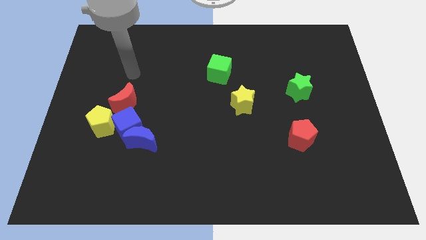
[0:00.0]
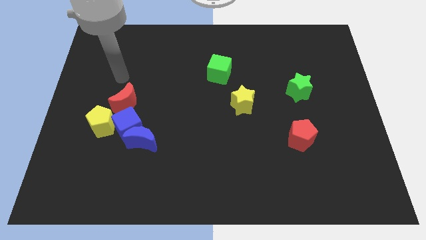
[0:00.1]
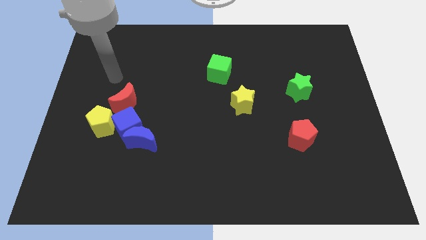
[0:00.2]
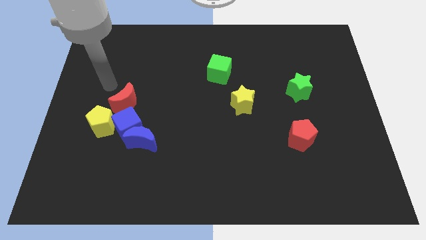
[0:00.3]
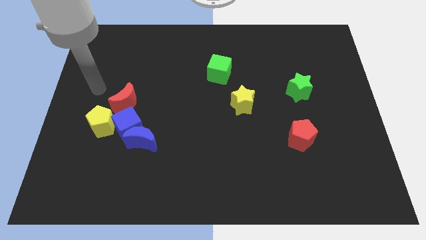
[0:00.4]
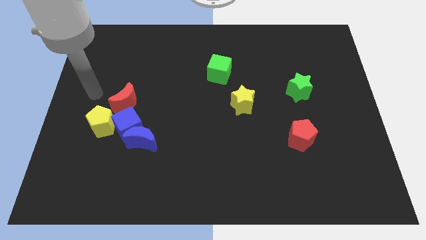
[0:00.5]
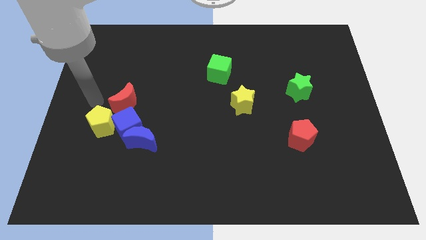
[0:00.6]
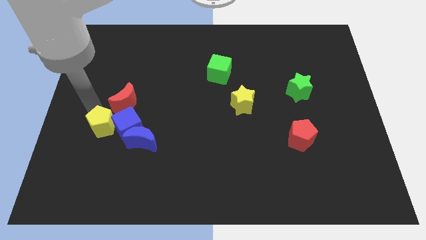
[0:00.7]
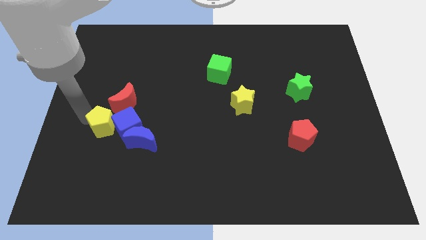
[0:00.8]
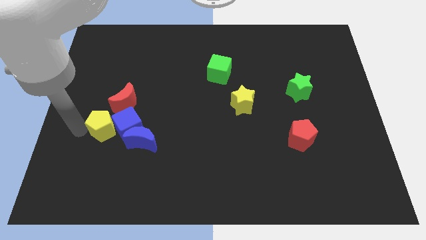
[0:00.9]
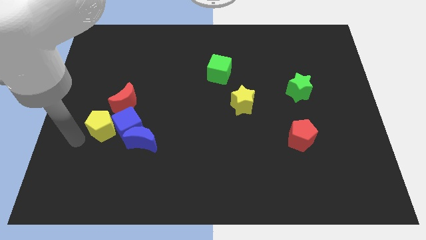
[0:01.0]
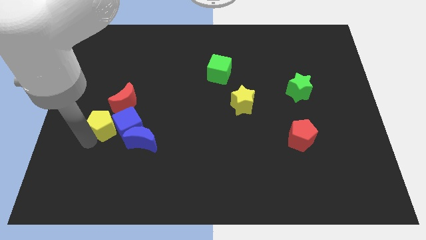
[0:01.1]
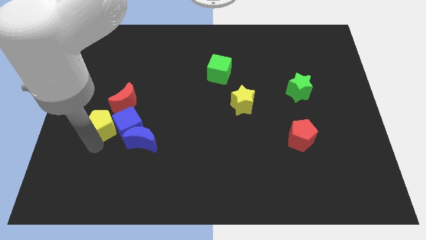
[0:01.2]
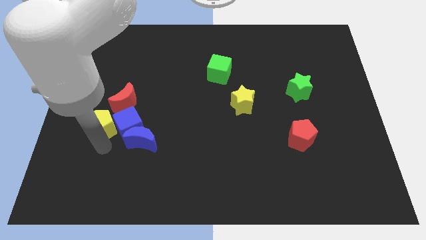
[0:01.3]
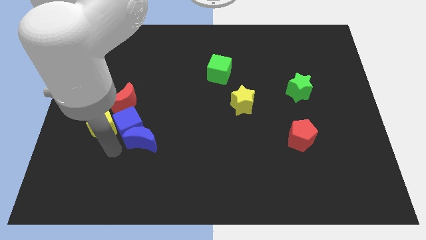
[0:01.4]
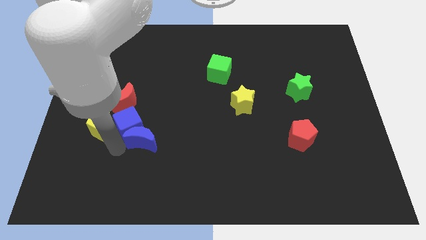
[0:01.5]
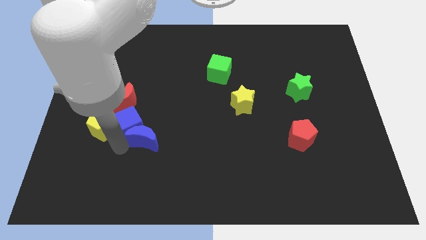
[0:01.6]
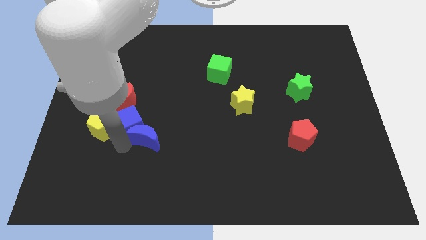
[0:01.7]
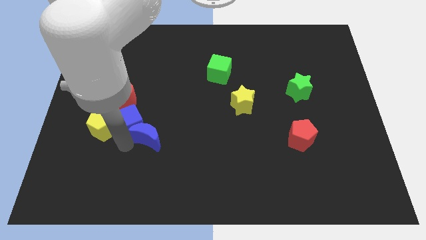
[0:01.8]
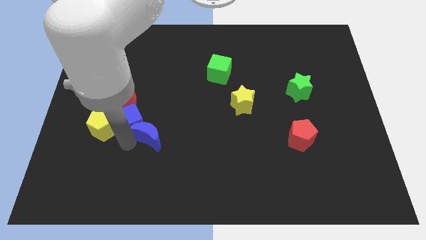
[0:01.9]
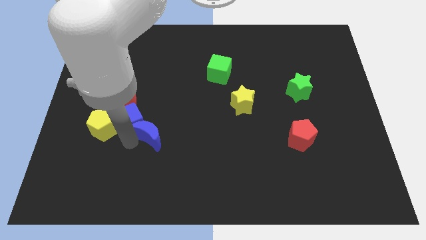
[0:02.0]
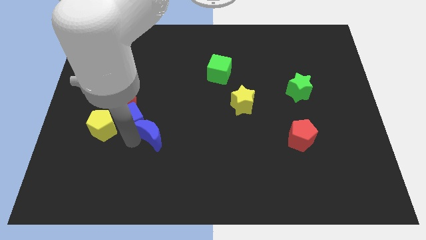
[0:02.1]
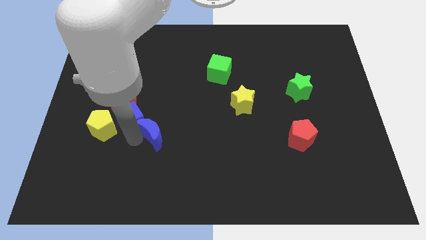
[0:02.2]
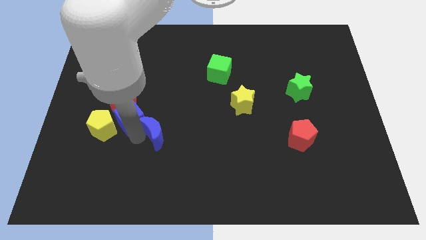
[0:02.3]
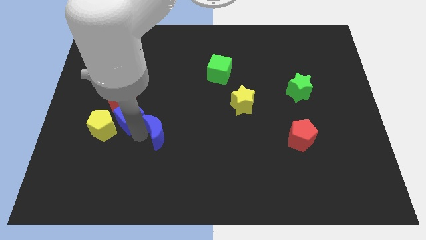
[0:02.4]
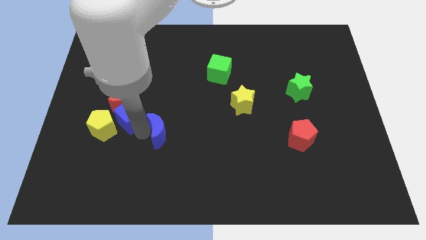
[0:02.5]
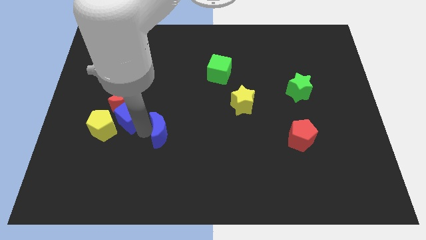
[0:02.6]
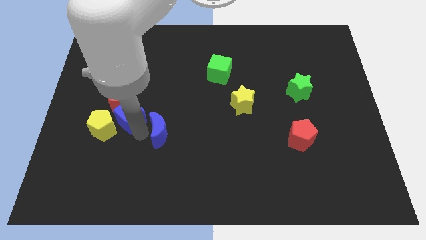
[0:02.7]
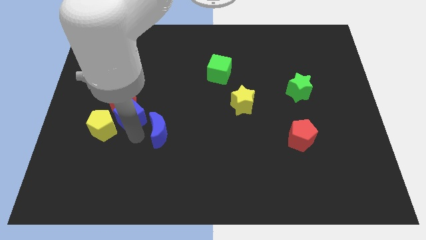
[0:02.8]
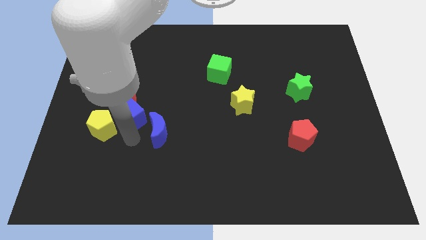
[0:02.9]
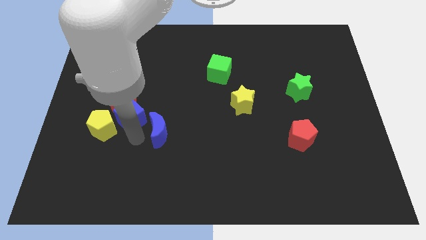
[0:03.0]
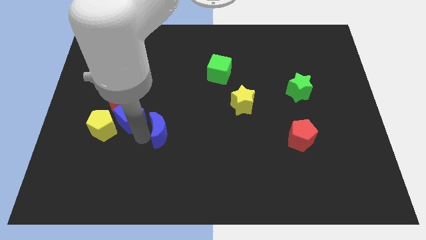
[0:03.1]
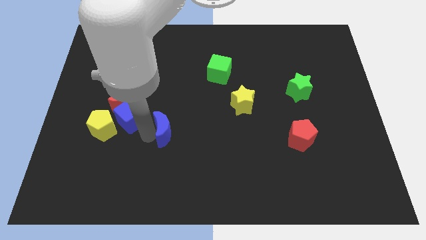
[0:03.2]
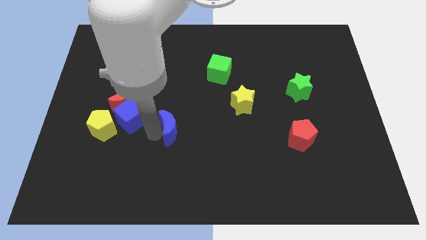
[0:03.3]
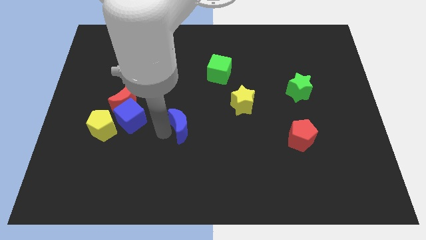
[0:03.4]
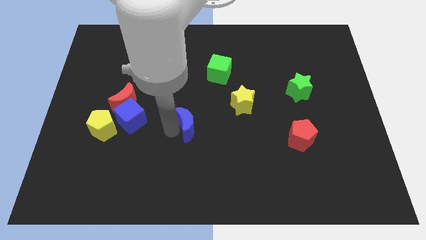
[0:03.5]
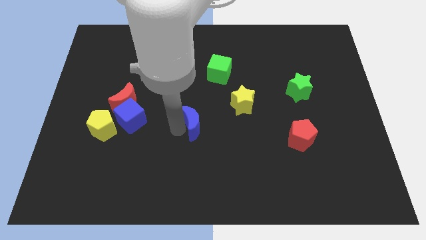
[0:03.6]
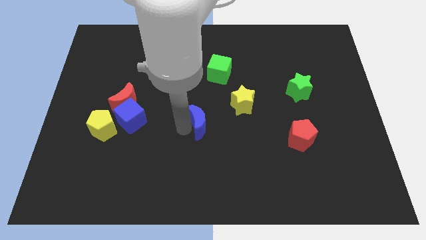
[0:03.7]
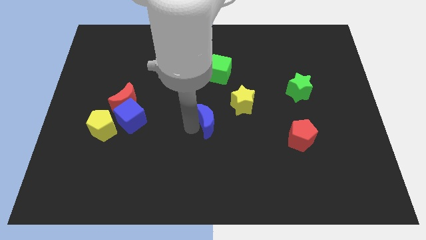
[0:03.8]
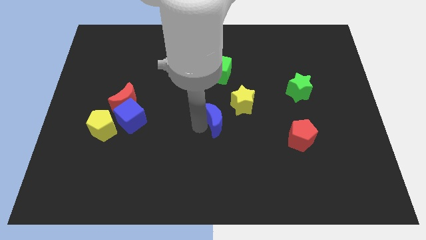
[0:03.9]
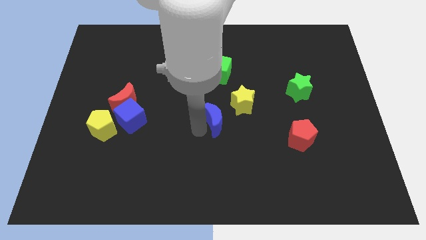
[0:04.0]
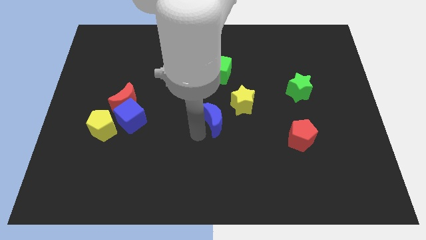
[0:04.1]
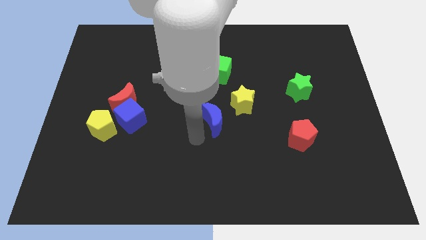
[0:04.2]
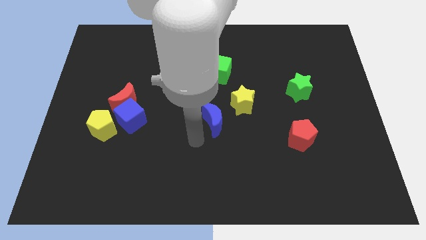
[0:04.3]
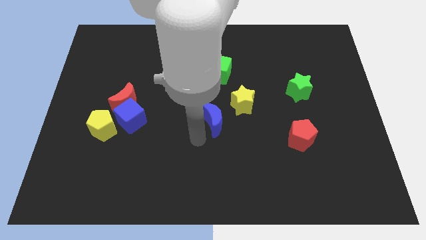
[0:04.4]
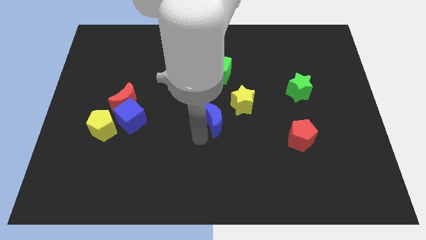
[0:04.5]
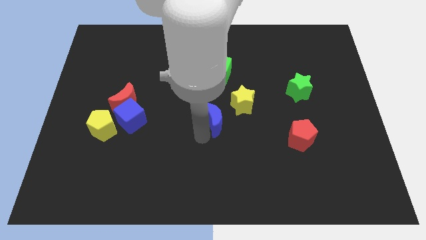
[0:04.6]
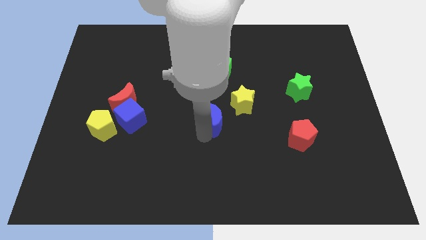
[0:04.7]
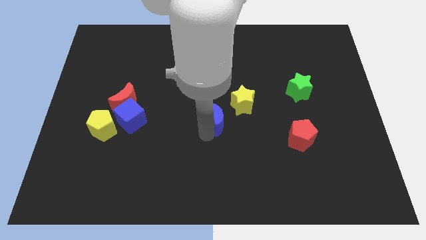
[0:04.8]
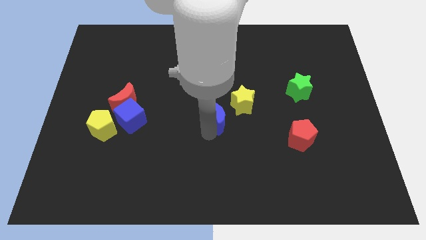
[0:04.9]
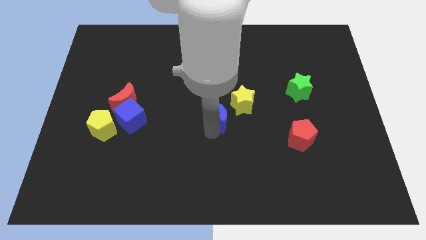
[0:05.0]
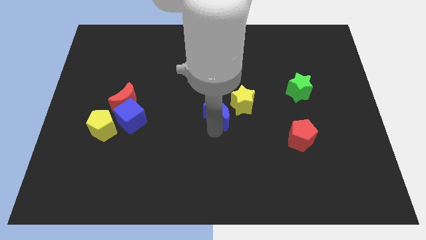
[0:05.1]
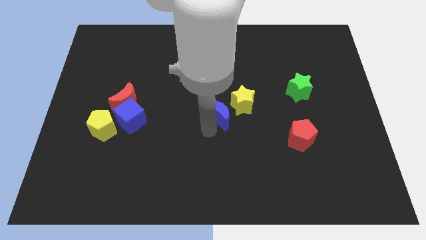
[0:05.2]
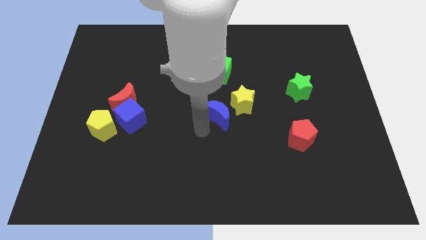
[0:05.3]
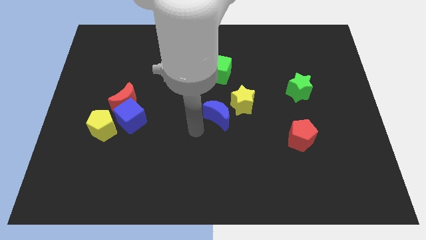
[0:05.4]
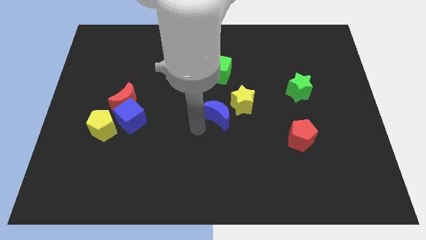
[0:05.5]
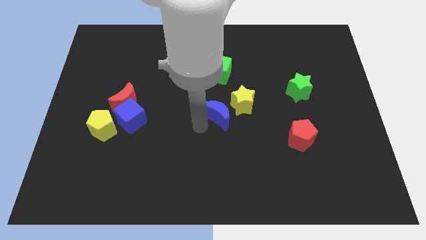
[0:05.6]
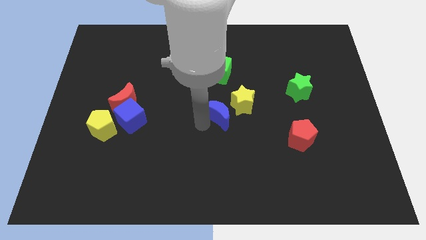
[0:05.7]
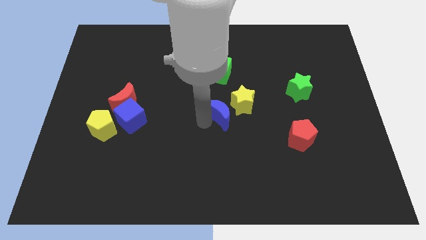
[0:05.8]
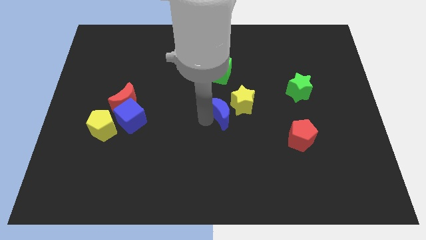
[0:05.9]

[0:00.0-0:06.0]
put the blue moon close to the yellow star

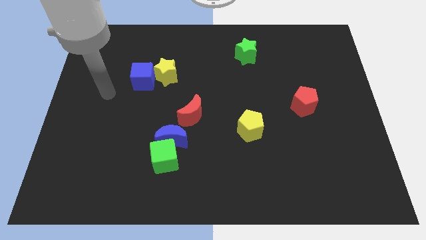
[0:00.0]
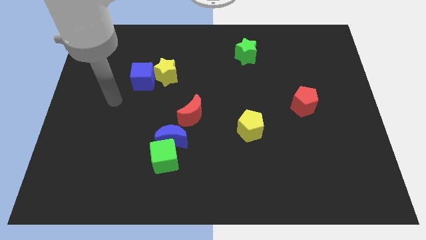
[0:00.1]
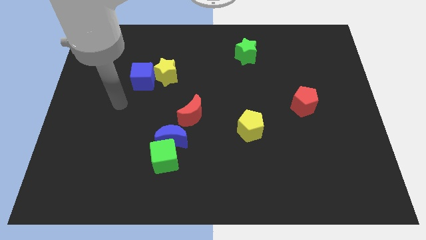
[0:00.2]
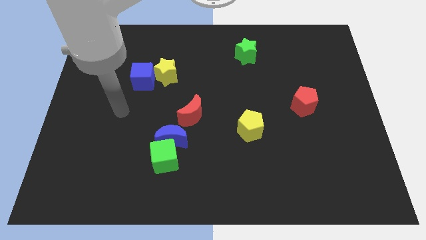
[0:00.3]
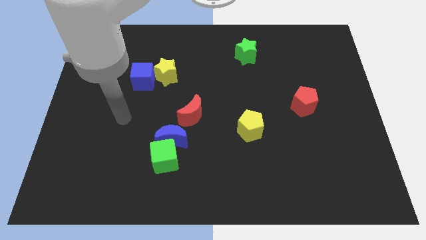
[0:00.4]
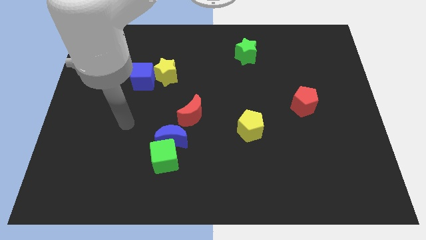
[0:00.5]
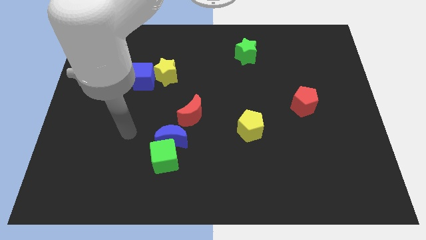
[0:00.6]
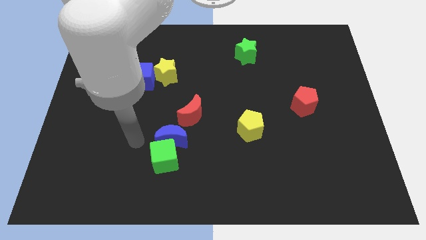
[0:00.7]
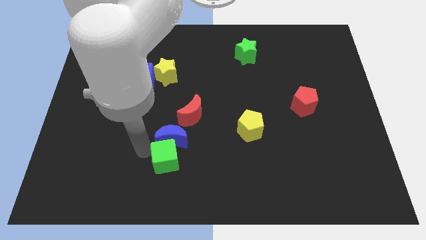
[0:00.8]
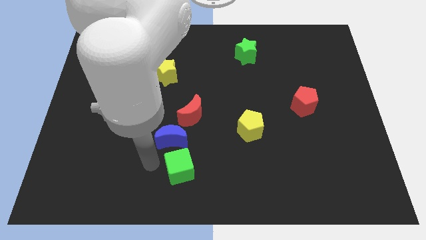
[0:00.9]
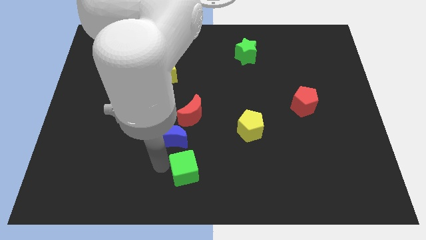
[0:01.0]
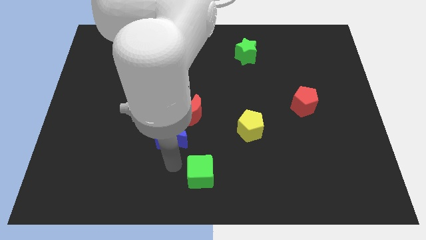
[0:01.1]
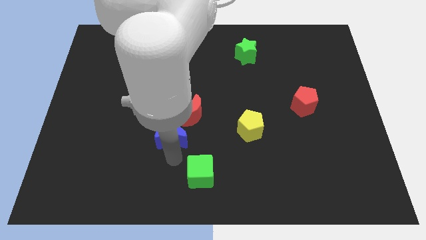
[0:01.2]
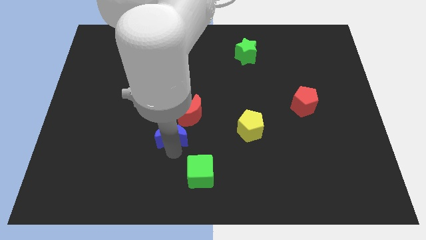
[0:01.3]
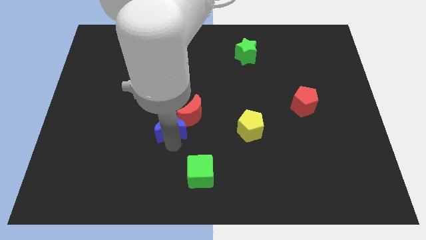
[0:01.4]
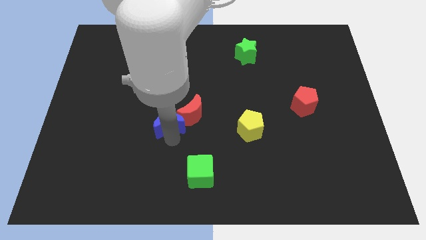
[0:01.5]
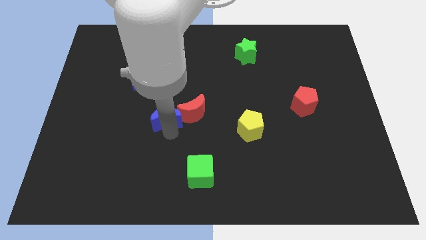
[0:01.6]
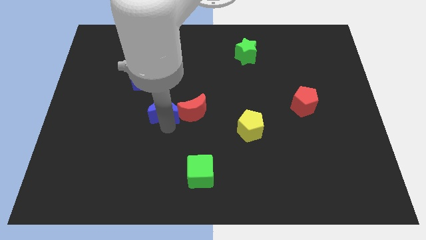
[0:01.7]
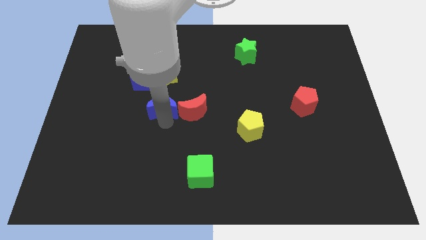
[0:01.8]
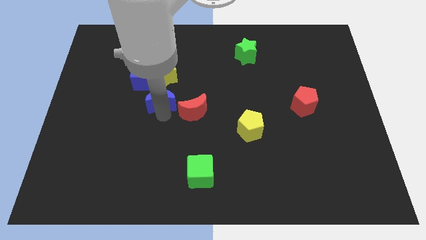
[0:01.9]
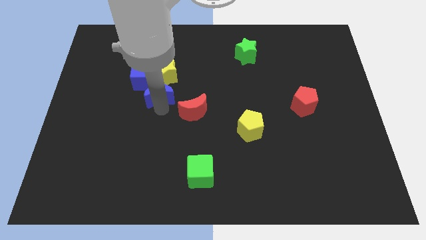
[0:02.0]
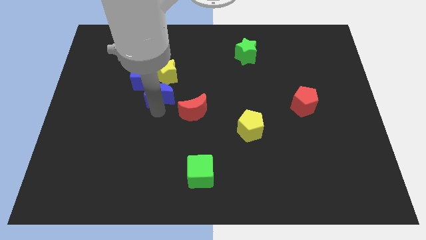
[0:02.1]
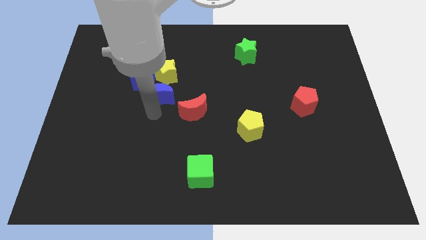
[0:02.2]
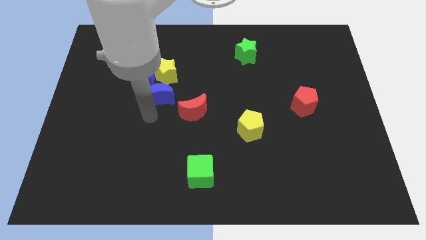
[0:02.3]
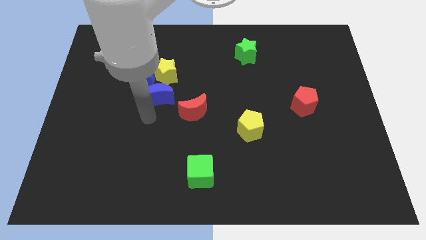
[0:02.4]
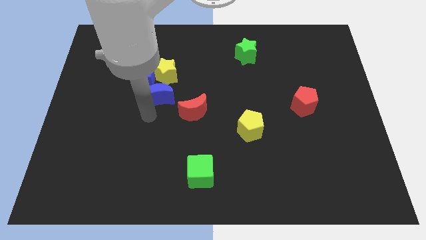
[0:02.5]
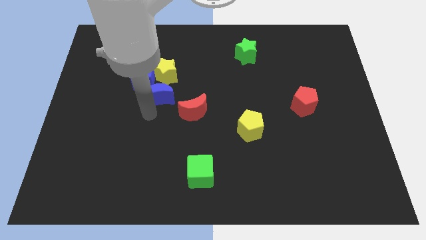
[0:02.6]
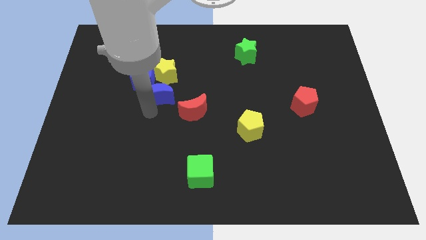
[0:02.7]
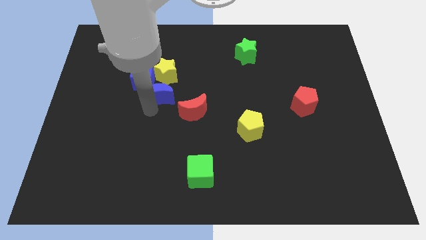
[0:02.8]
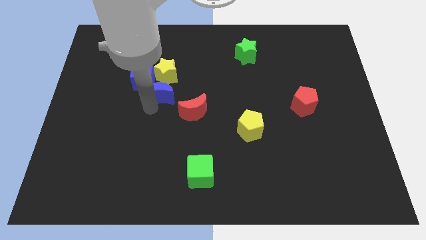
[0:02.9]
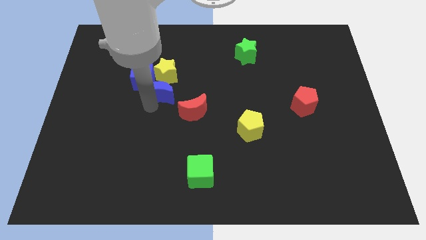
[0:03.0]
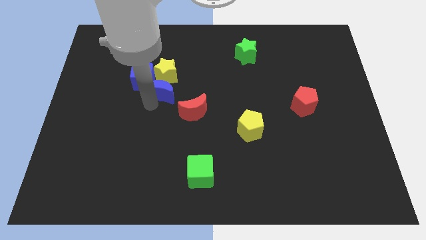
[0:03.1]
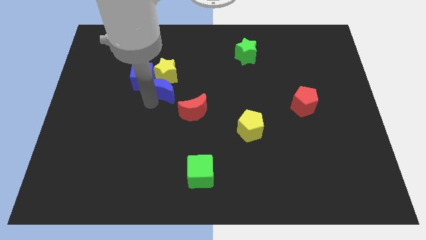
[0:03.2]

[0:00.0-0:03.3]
put the blue moon to the yellow star
